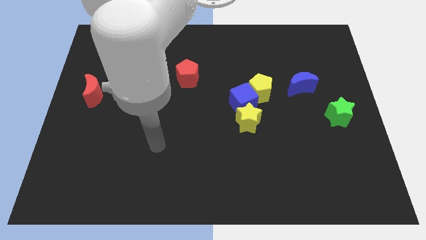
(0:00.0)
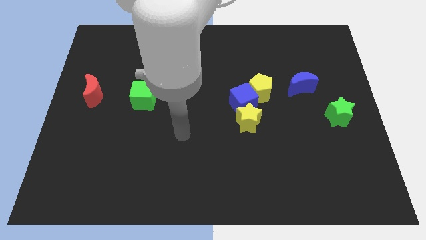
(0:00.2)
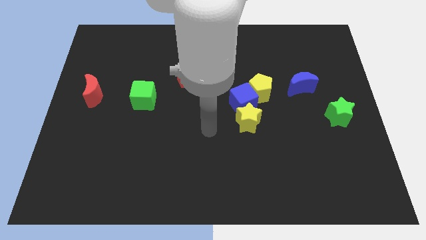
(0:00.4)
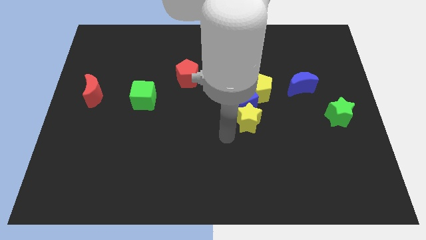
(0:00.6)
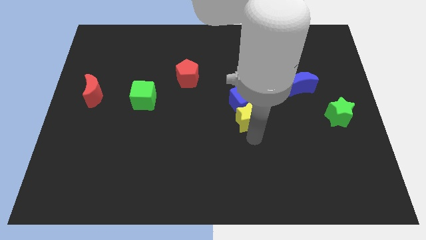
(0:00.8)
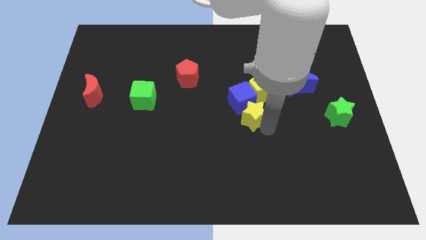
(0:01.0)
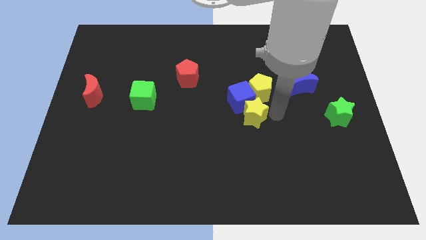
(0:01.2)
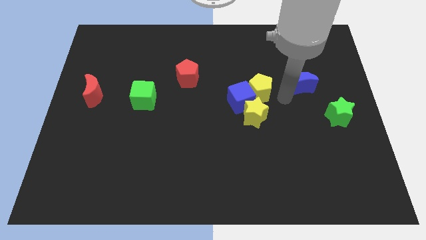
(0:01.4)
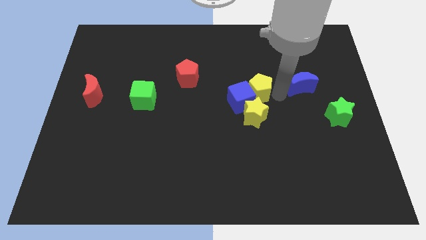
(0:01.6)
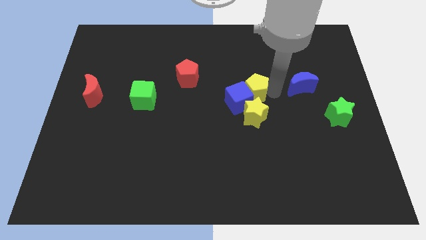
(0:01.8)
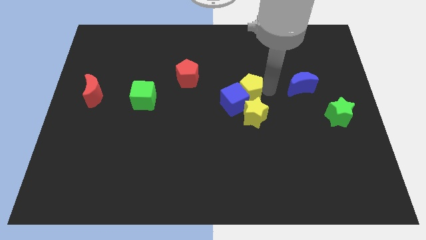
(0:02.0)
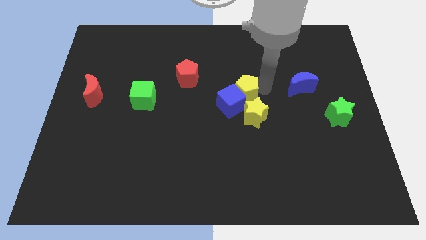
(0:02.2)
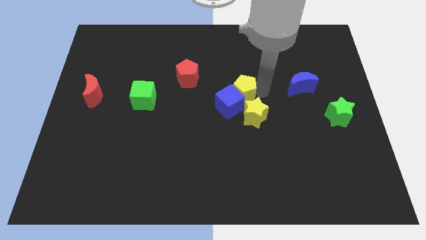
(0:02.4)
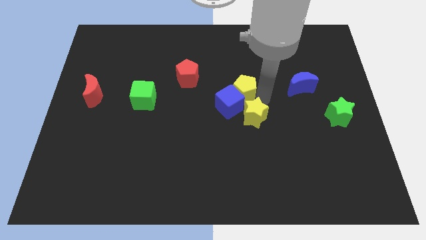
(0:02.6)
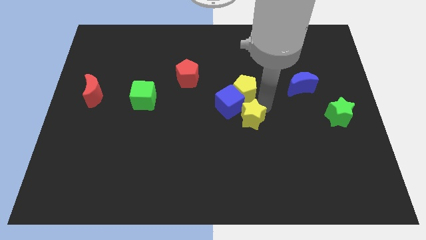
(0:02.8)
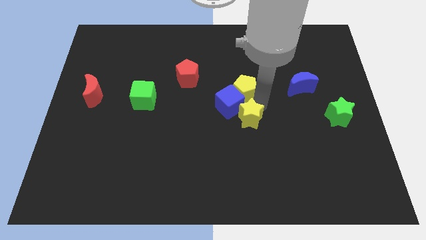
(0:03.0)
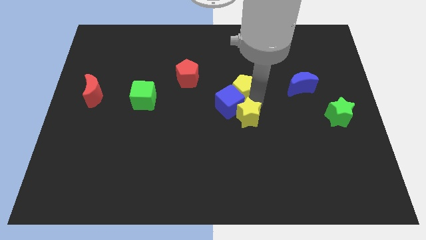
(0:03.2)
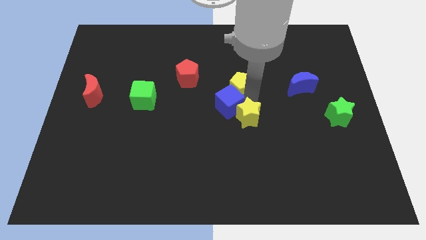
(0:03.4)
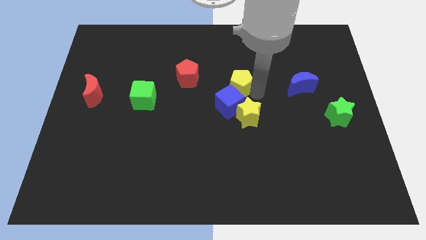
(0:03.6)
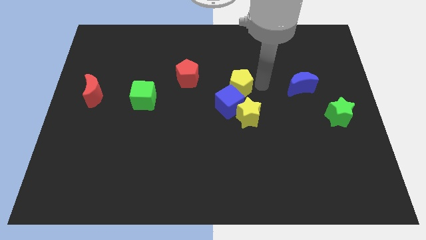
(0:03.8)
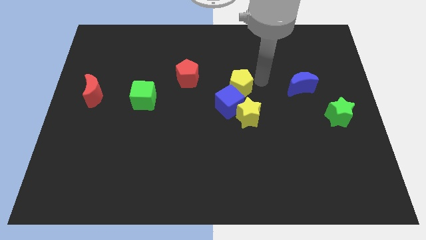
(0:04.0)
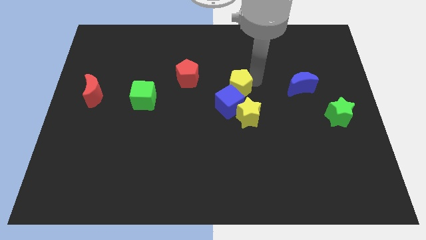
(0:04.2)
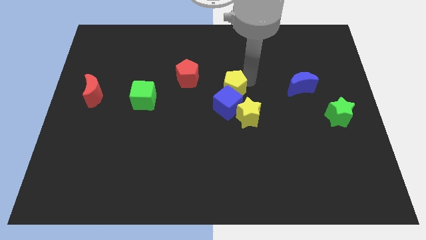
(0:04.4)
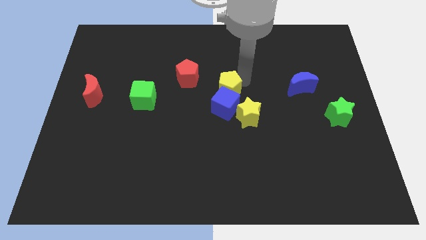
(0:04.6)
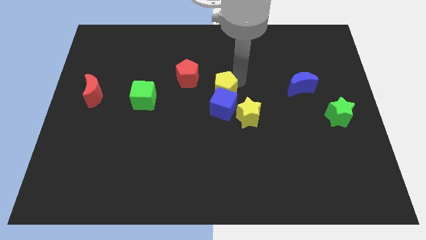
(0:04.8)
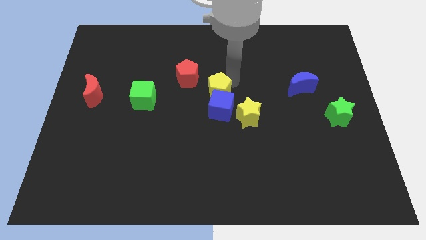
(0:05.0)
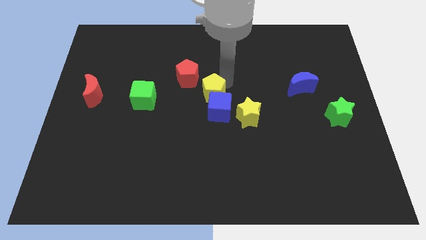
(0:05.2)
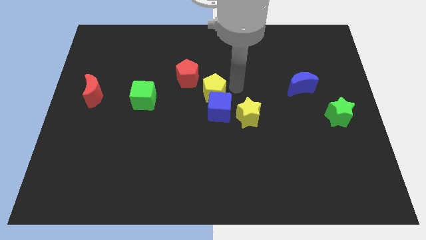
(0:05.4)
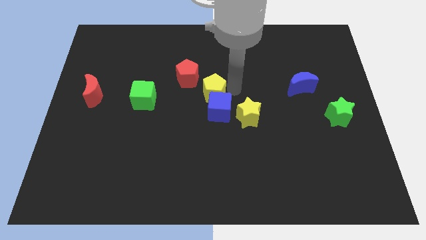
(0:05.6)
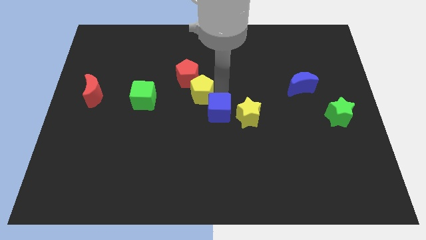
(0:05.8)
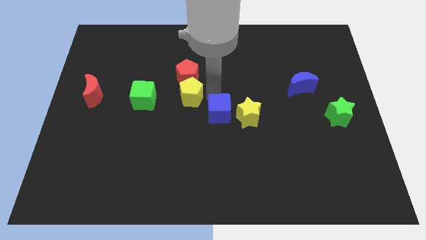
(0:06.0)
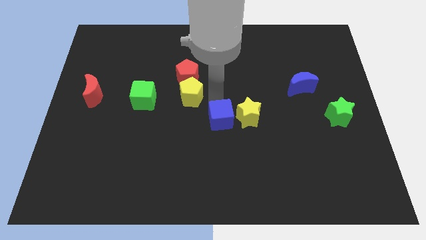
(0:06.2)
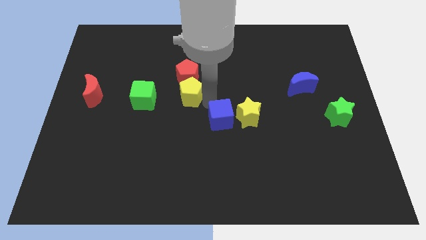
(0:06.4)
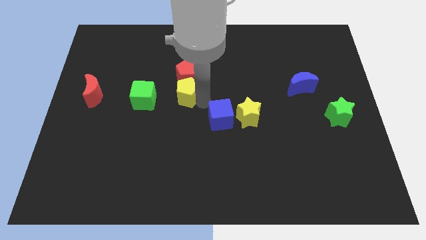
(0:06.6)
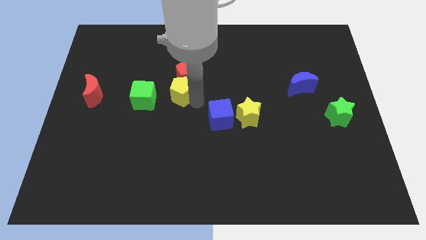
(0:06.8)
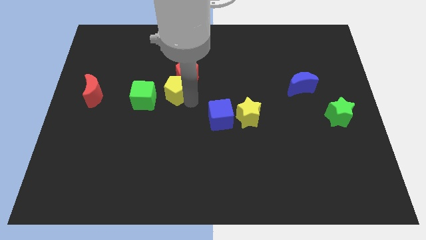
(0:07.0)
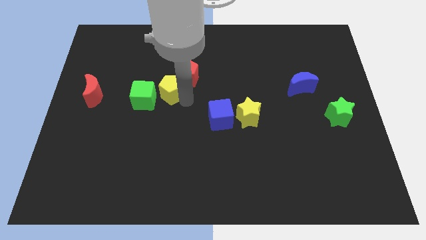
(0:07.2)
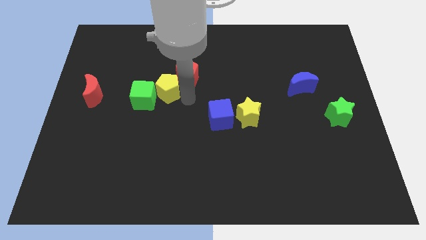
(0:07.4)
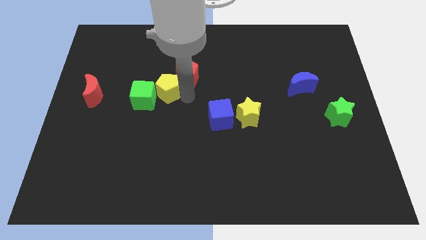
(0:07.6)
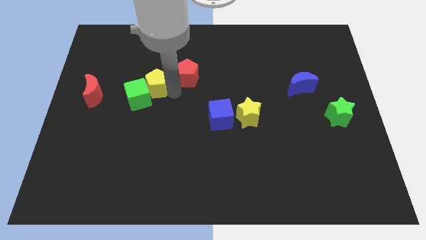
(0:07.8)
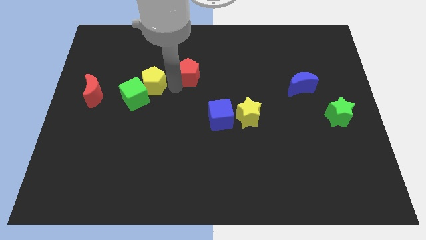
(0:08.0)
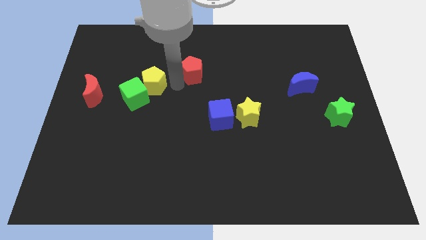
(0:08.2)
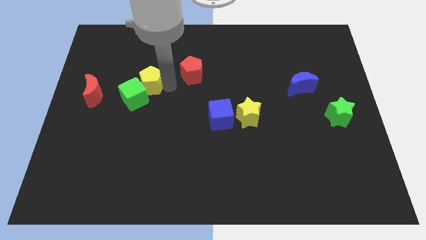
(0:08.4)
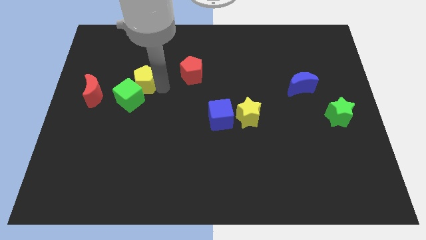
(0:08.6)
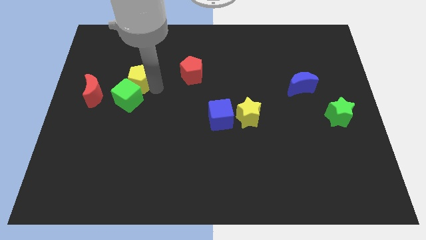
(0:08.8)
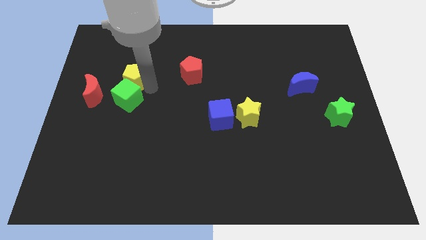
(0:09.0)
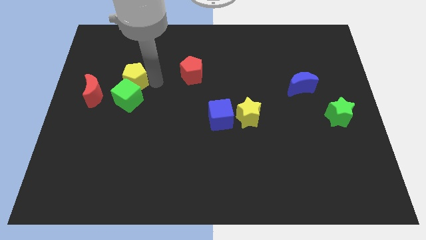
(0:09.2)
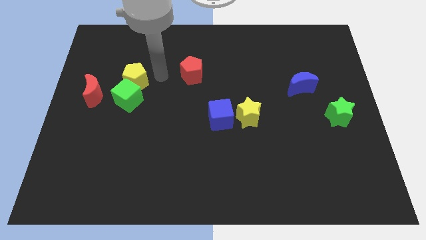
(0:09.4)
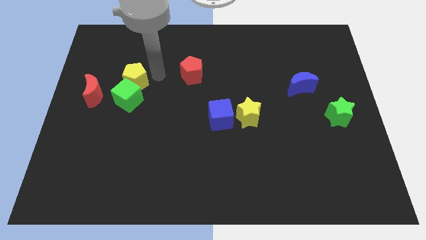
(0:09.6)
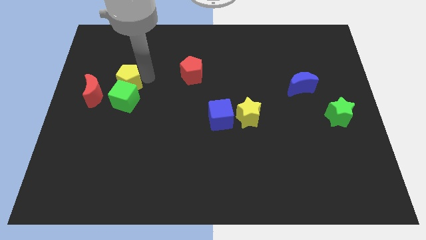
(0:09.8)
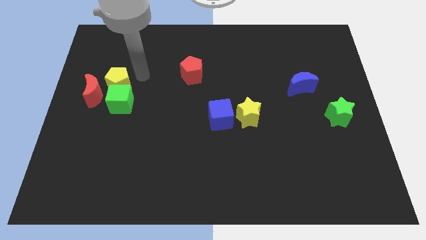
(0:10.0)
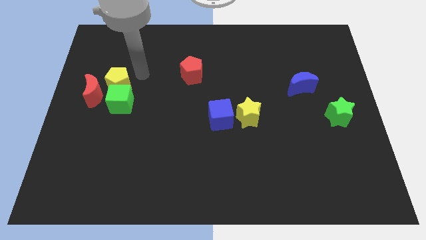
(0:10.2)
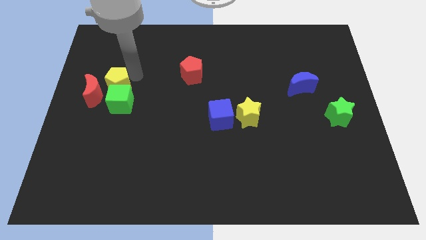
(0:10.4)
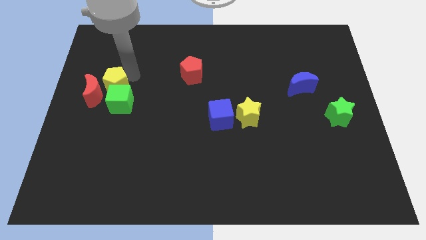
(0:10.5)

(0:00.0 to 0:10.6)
put the yellow pentagon towards the red moon

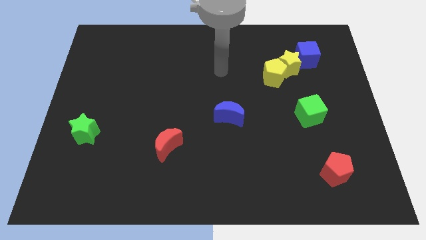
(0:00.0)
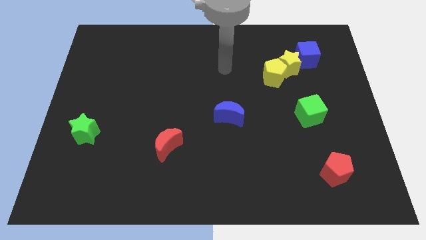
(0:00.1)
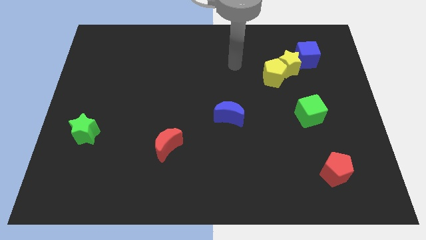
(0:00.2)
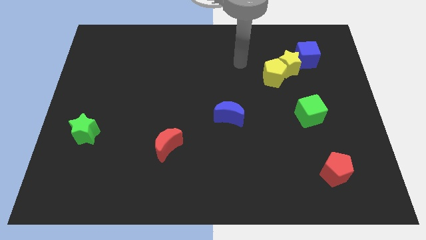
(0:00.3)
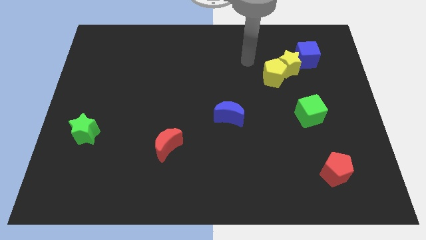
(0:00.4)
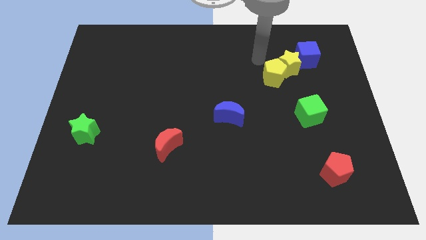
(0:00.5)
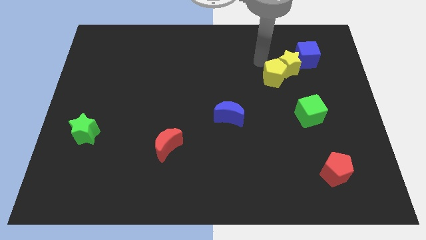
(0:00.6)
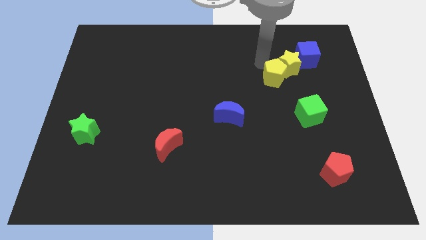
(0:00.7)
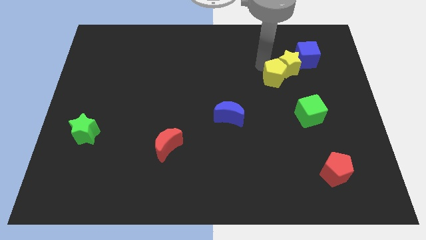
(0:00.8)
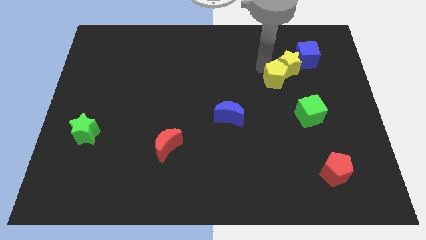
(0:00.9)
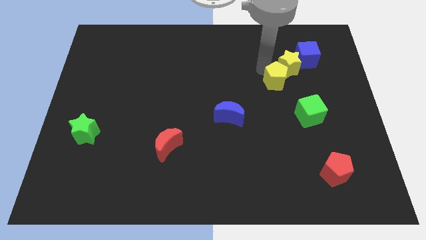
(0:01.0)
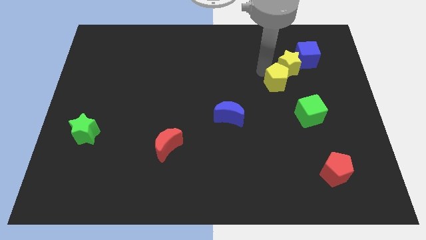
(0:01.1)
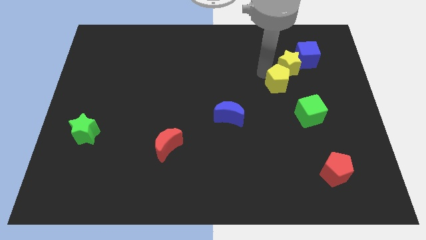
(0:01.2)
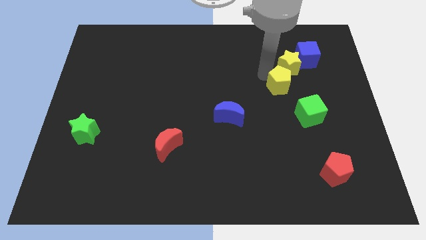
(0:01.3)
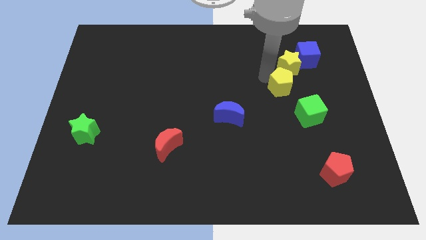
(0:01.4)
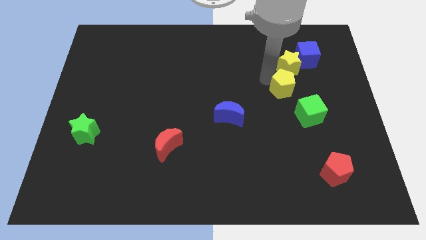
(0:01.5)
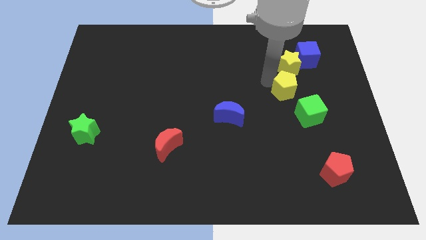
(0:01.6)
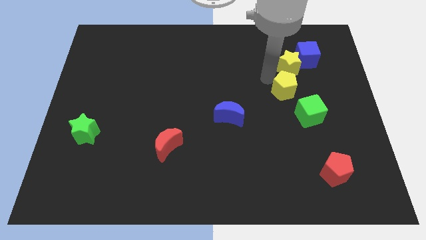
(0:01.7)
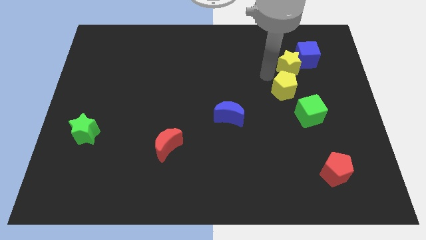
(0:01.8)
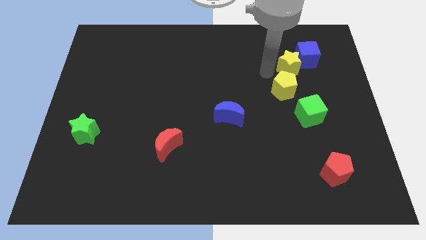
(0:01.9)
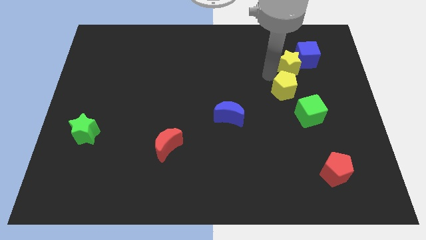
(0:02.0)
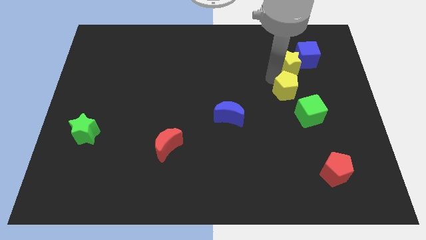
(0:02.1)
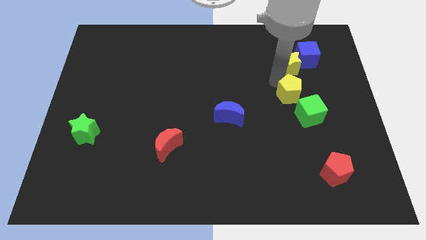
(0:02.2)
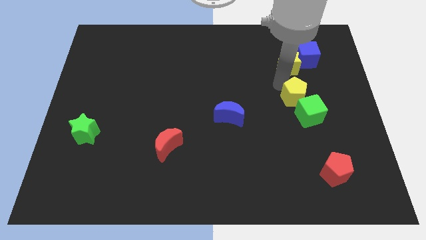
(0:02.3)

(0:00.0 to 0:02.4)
slide the yellow pentagon close to the green cube

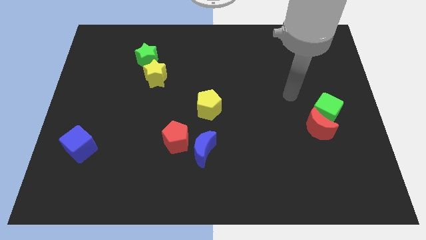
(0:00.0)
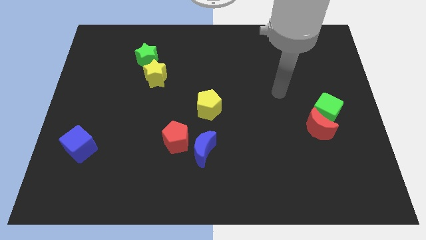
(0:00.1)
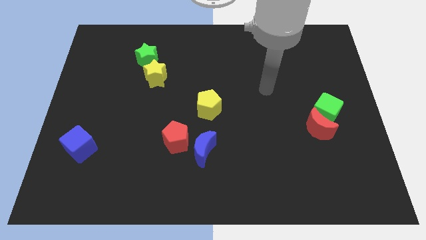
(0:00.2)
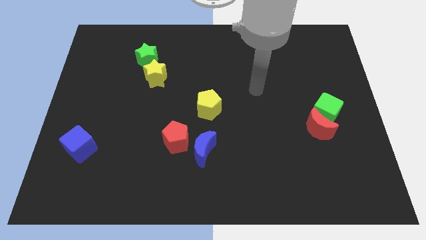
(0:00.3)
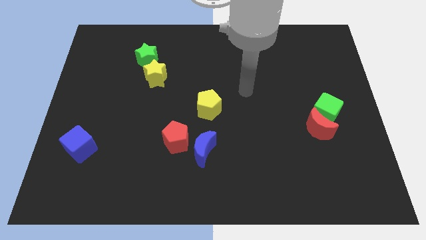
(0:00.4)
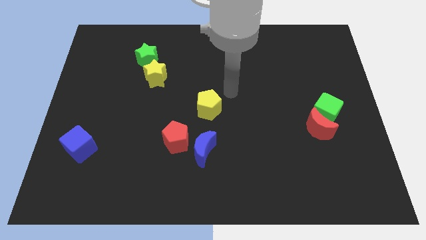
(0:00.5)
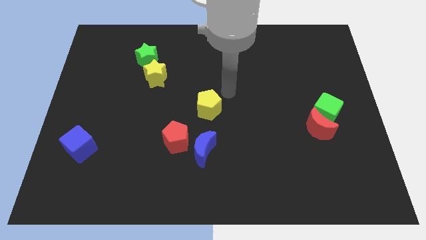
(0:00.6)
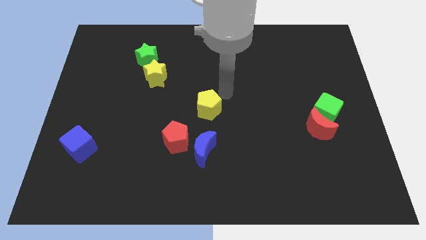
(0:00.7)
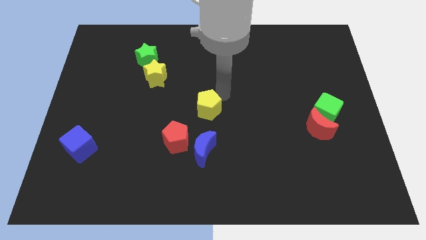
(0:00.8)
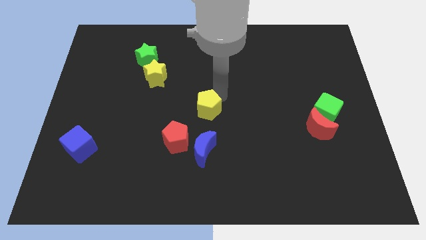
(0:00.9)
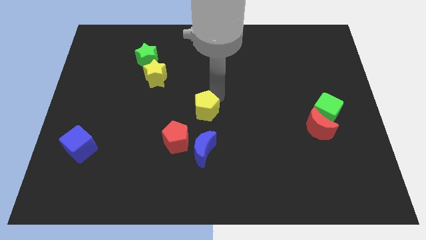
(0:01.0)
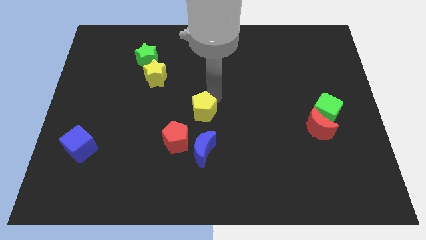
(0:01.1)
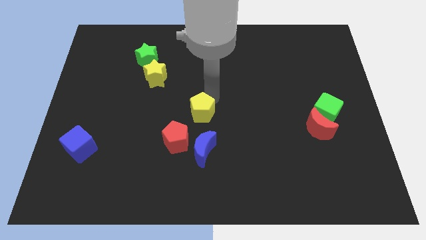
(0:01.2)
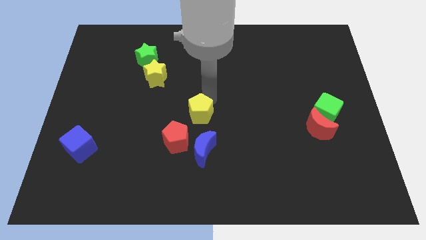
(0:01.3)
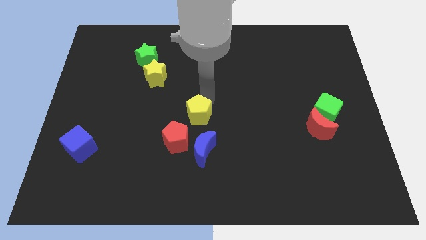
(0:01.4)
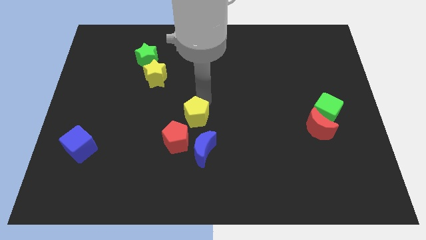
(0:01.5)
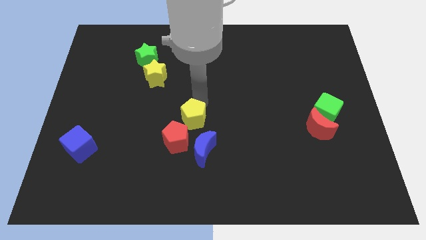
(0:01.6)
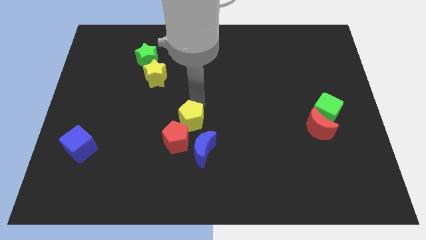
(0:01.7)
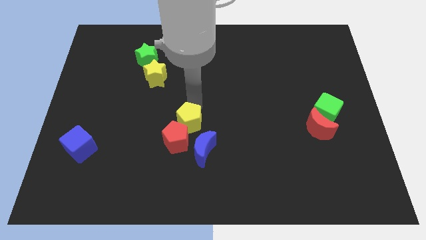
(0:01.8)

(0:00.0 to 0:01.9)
push the yellow pentagon close to the red pentagon
